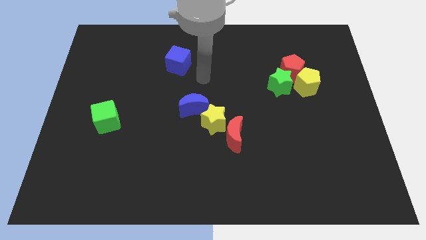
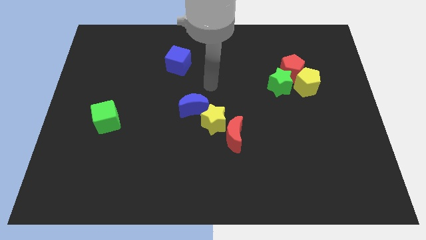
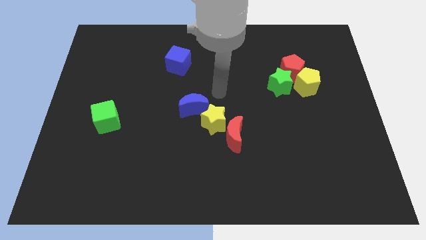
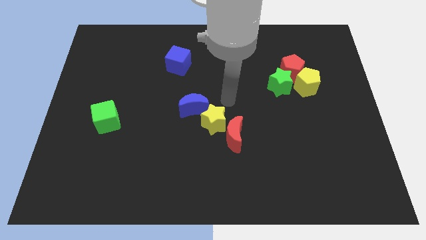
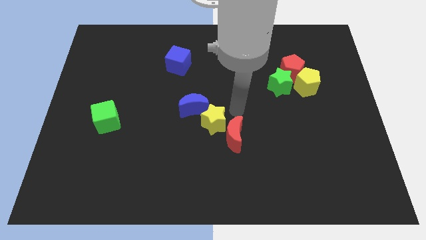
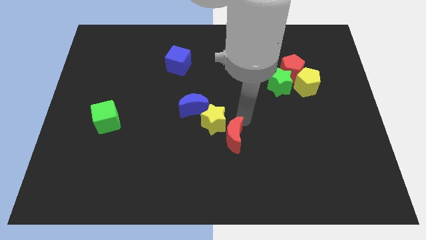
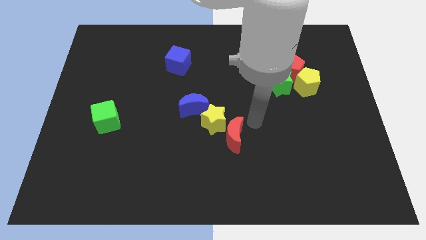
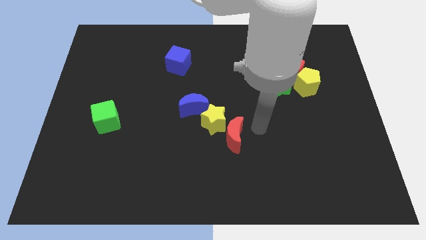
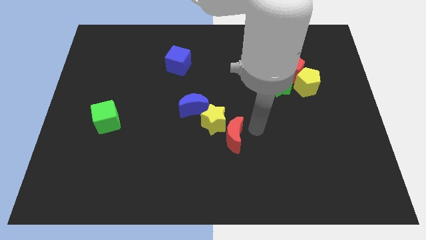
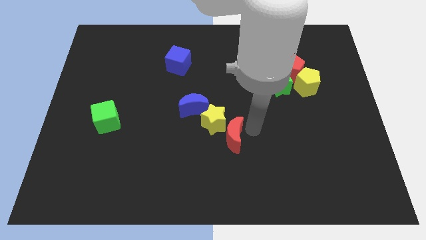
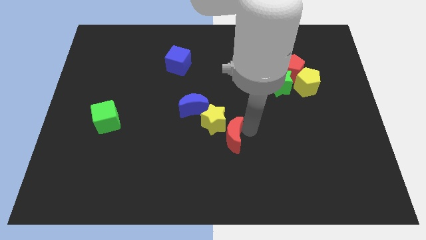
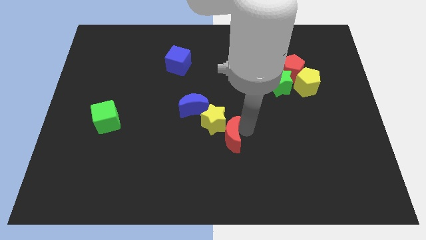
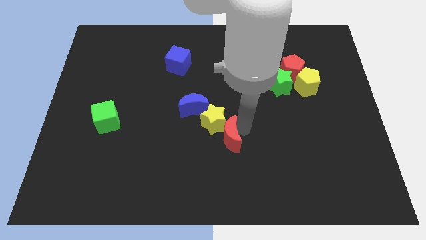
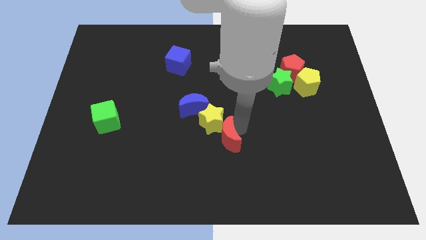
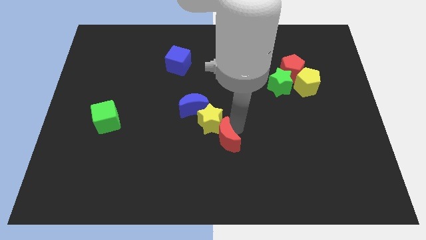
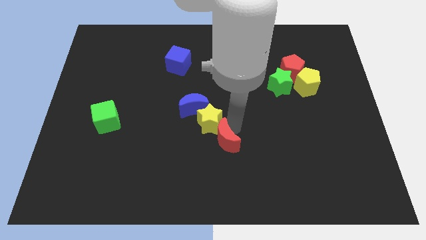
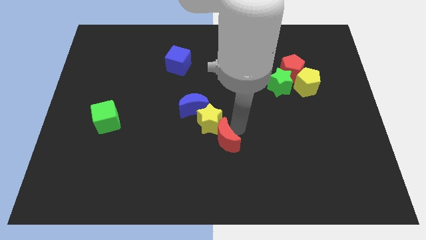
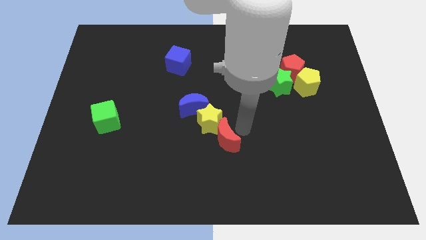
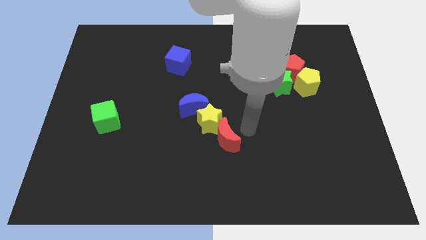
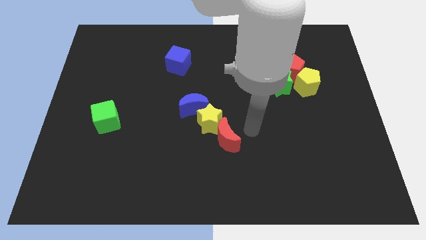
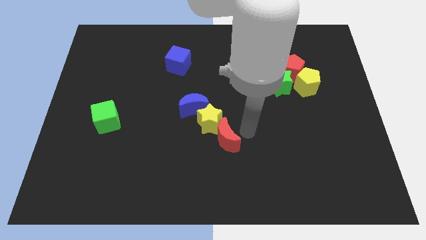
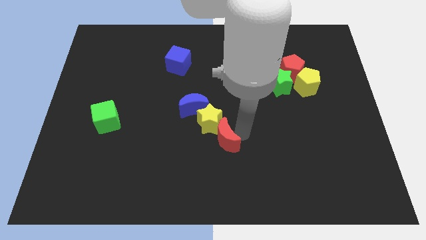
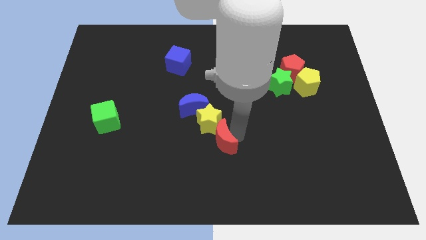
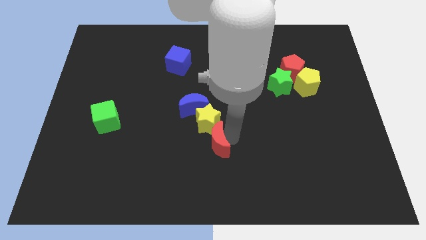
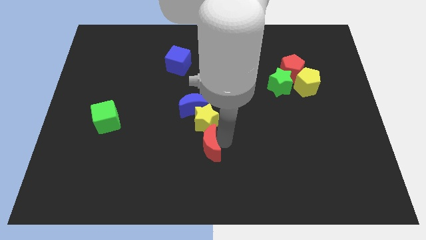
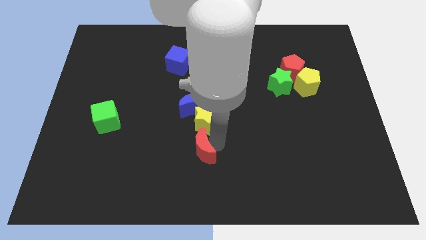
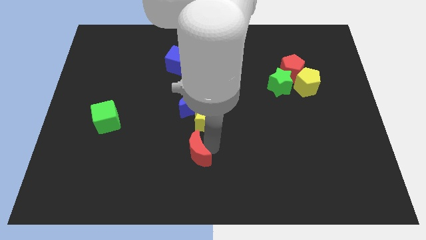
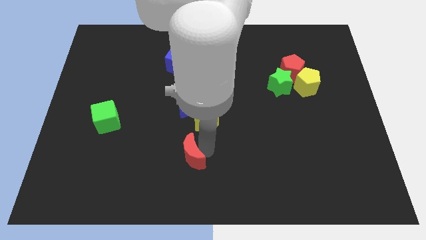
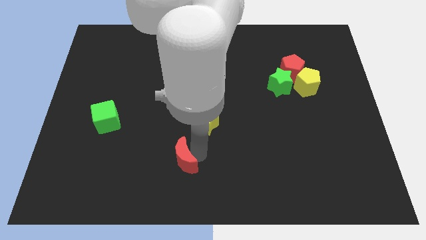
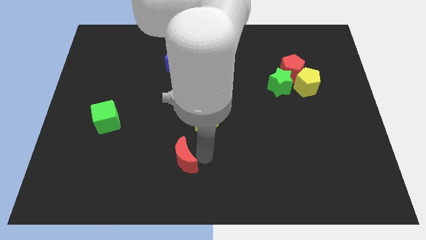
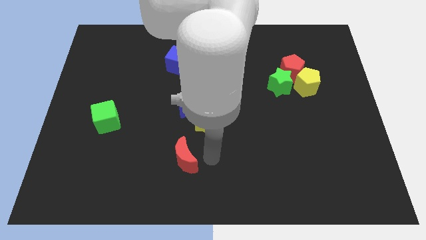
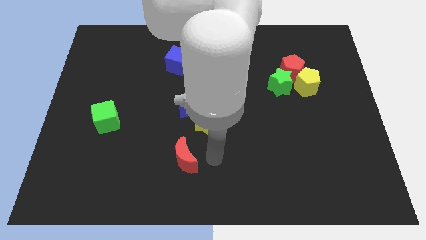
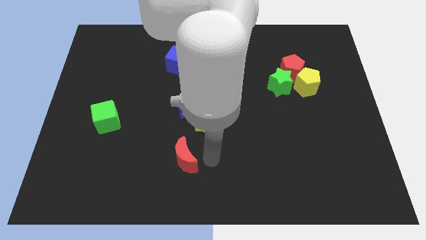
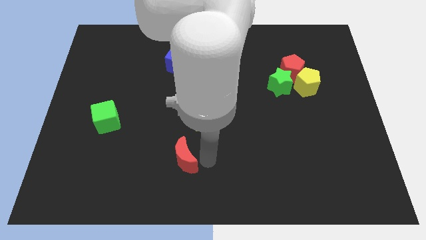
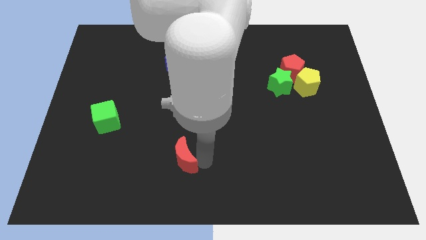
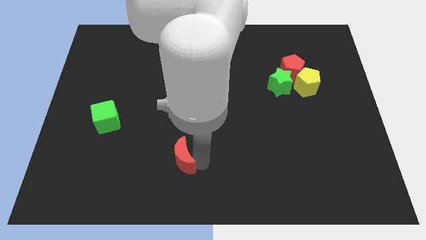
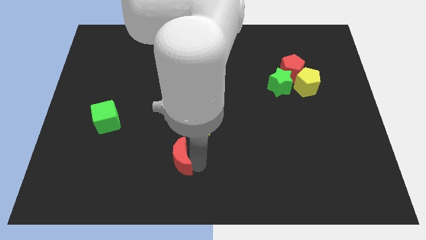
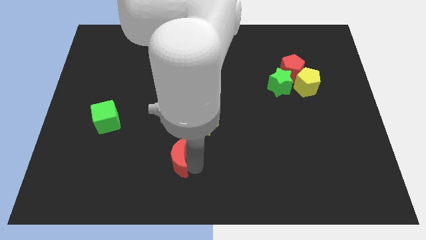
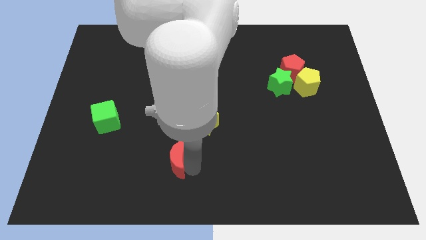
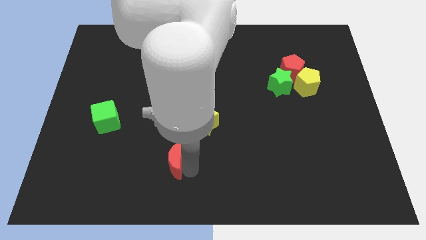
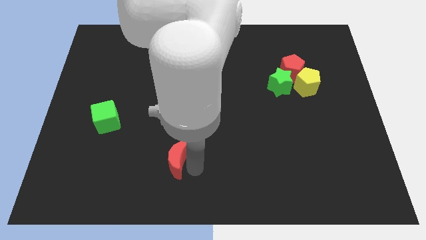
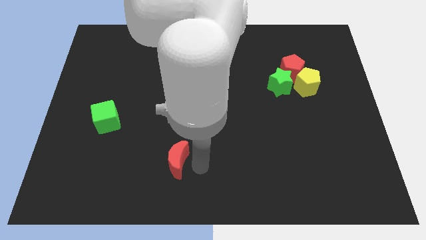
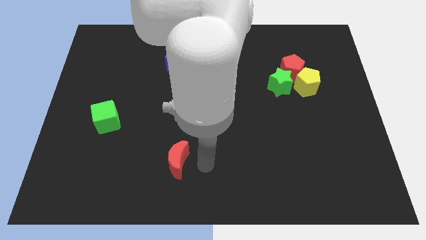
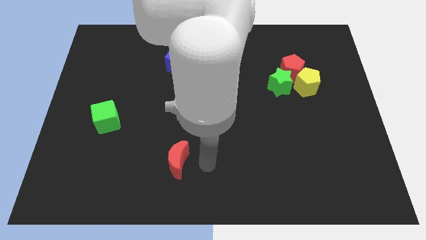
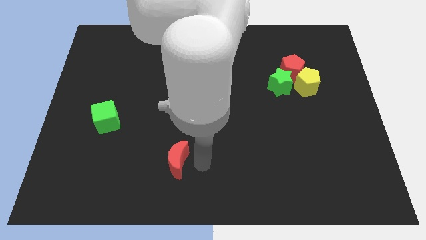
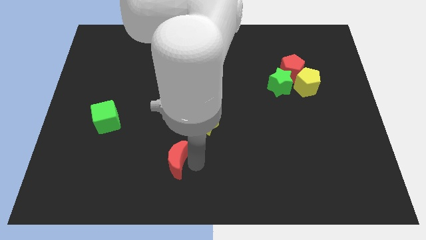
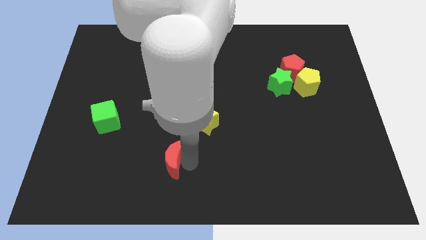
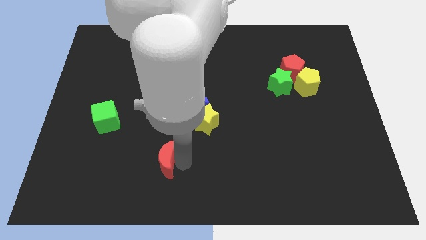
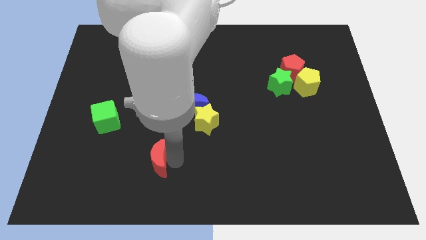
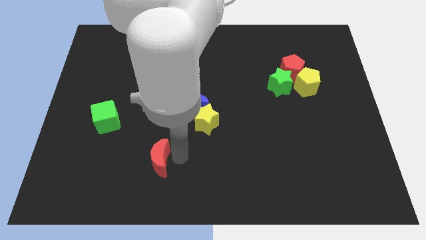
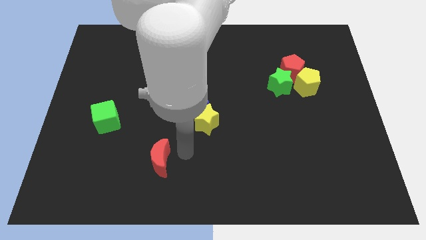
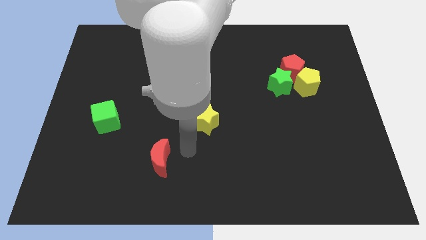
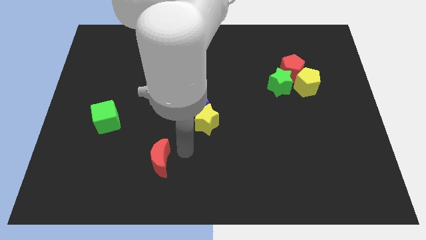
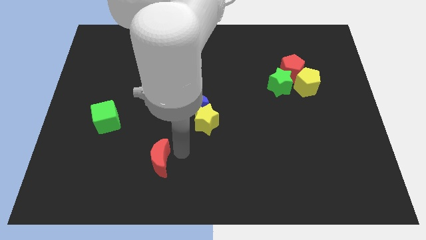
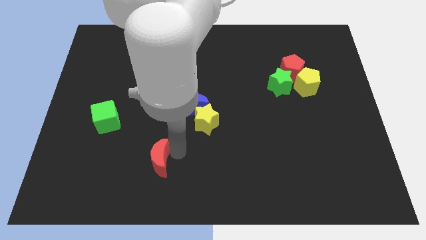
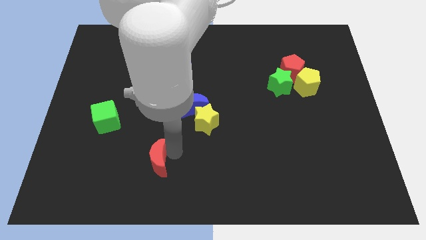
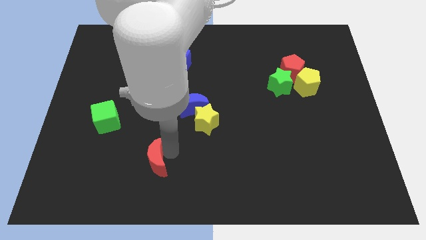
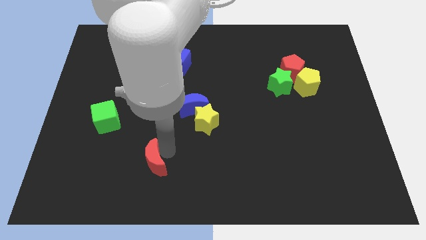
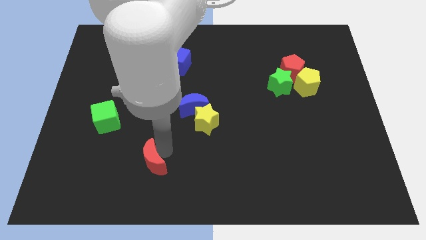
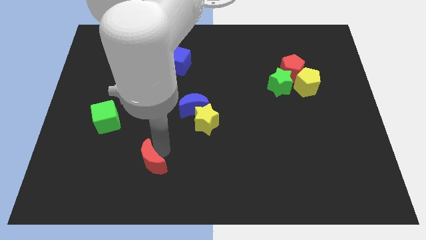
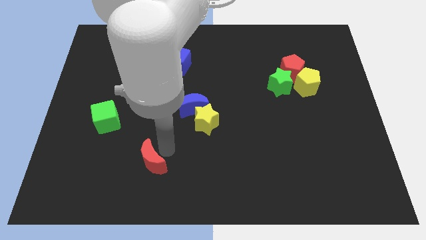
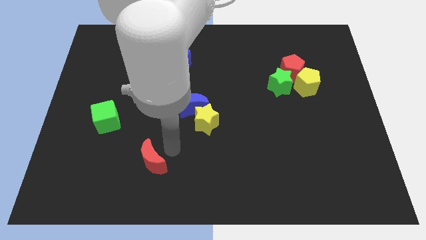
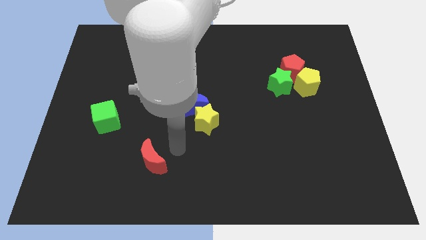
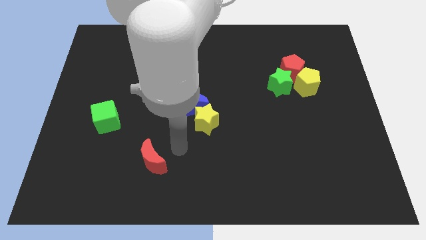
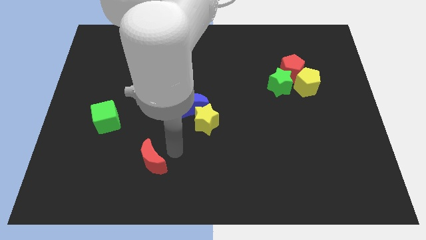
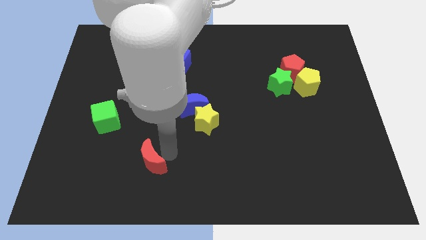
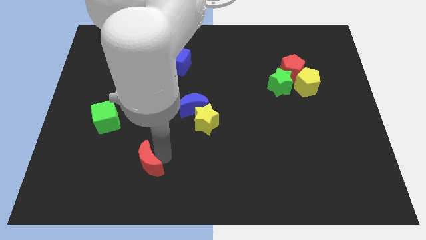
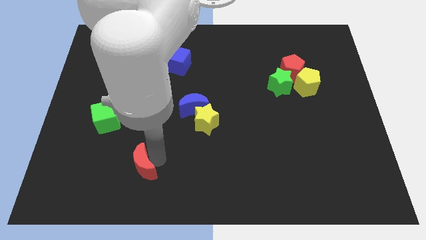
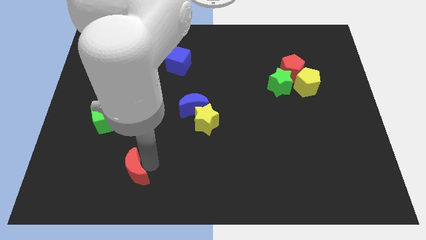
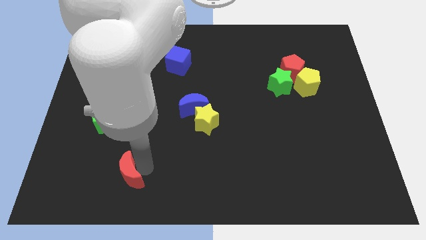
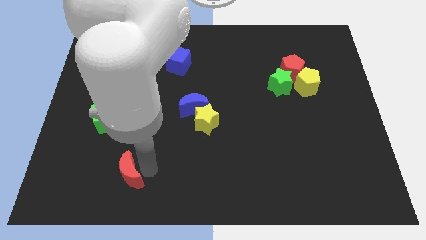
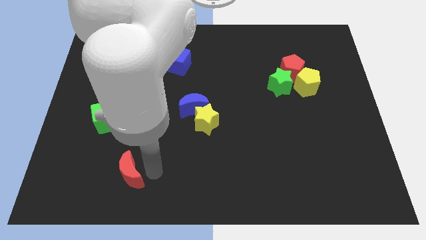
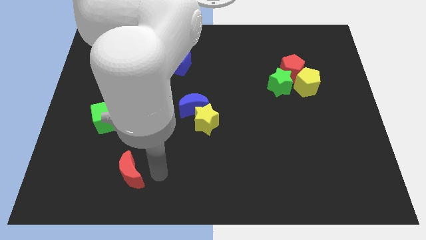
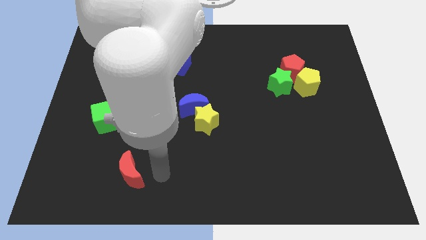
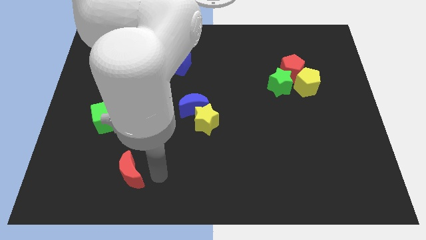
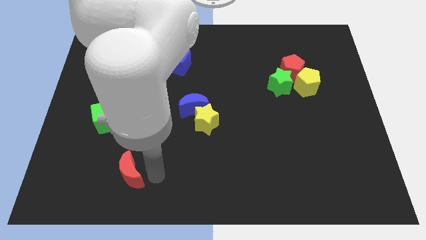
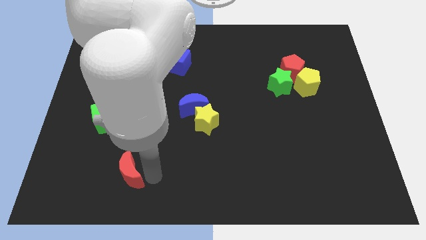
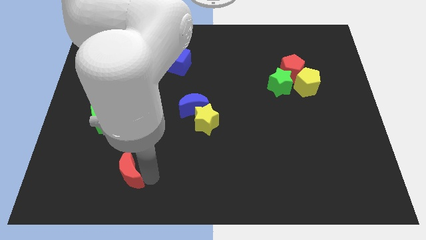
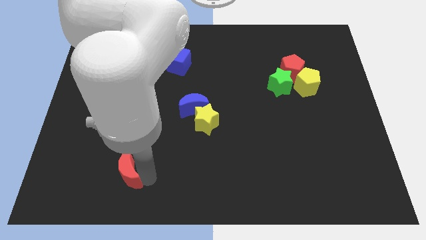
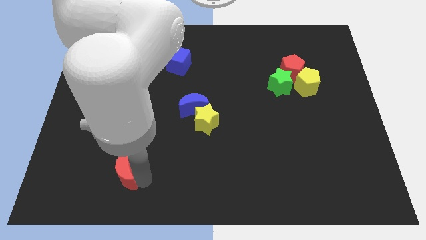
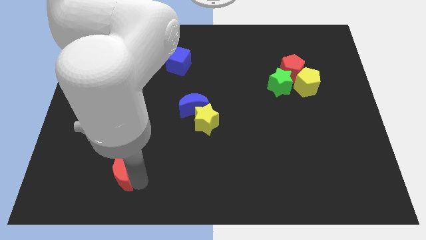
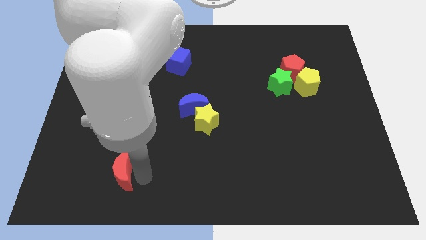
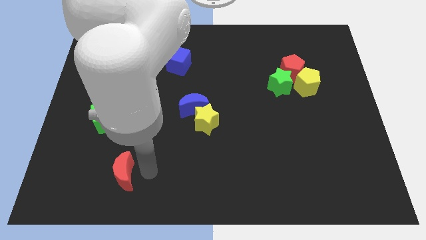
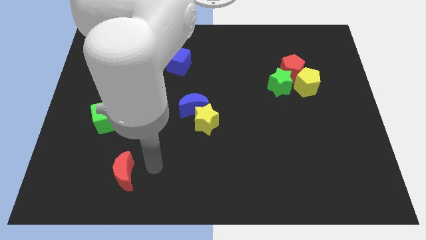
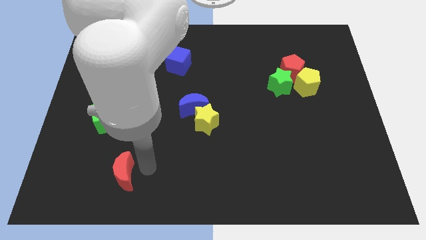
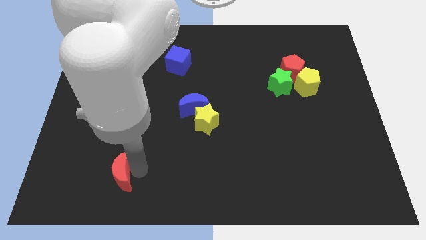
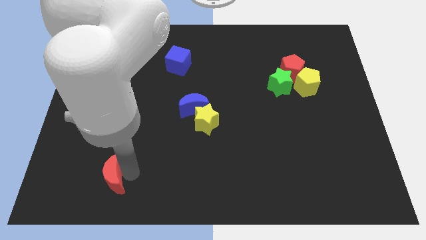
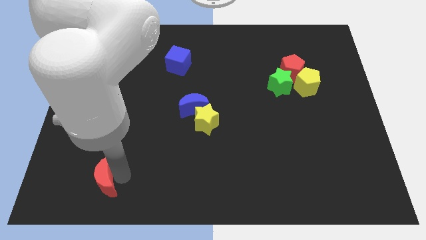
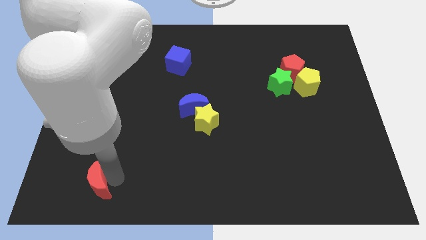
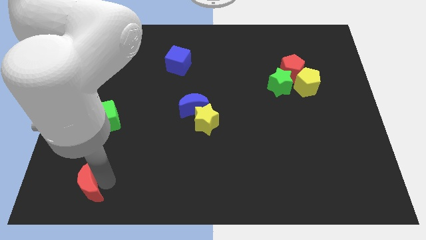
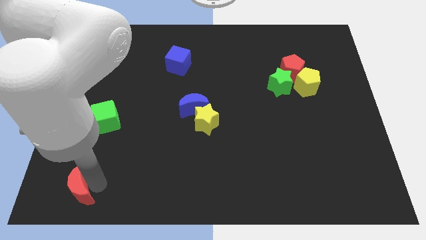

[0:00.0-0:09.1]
slide the red moon to the bottom left
